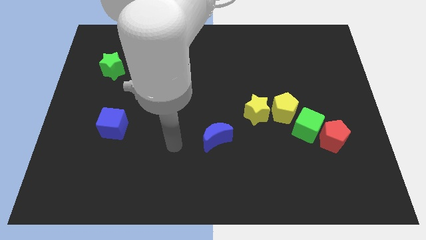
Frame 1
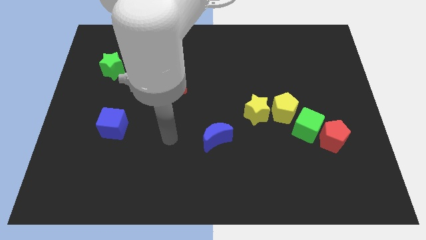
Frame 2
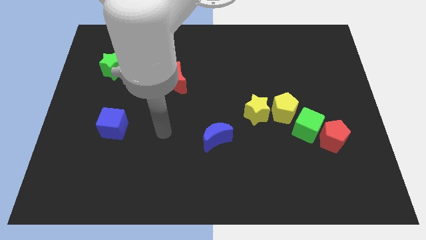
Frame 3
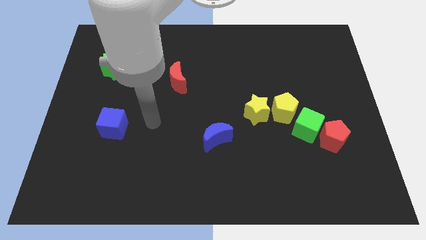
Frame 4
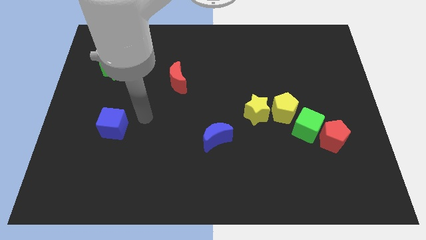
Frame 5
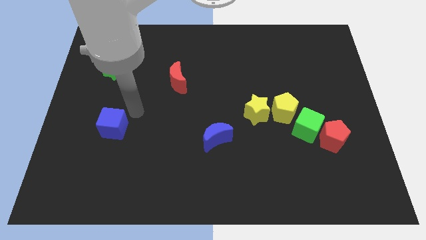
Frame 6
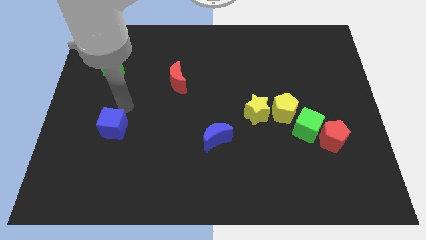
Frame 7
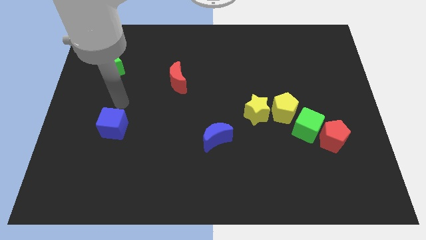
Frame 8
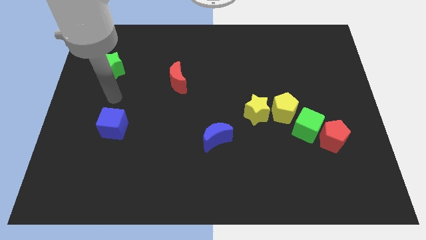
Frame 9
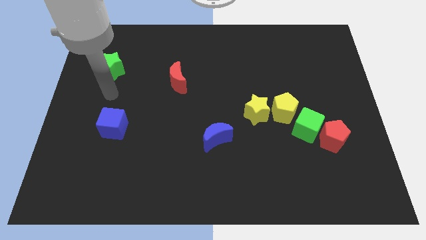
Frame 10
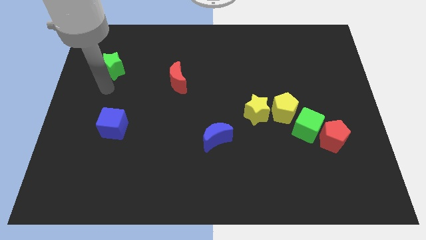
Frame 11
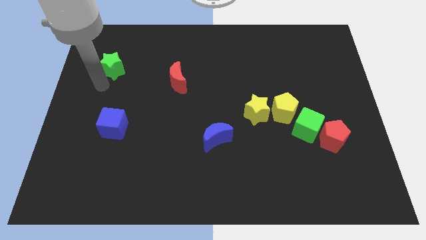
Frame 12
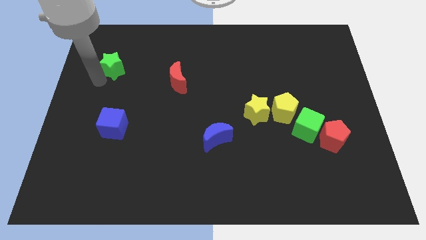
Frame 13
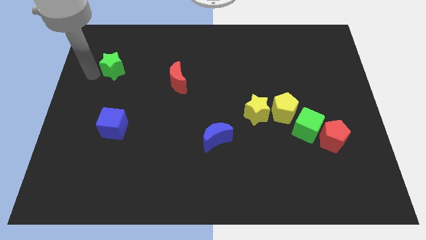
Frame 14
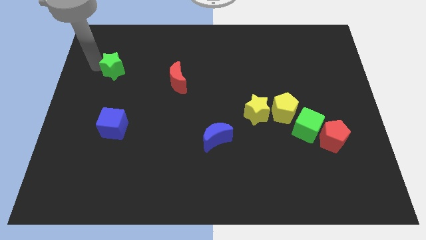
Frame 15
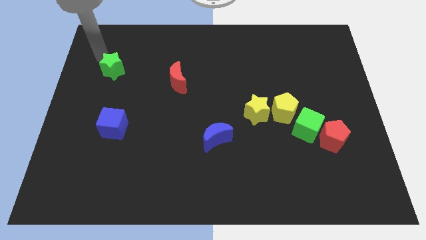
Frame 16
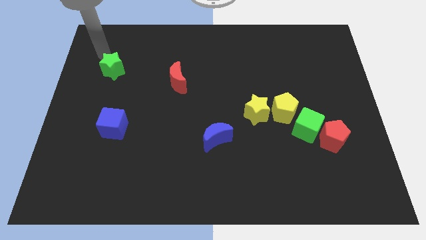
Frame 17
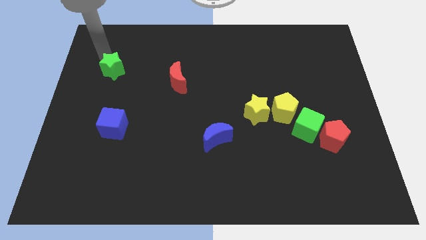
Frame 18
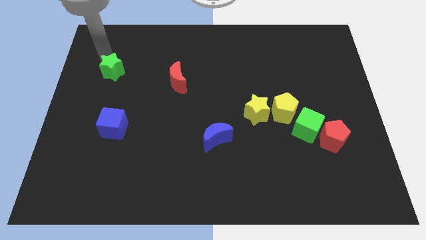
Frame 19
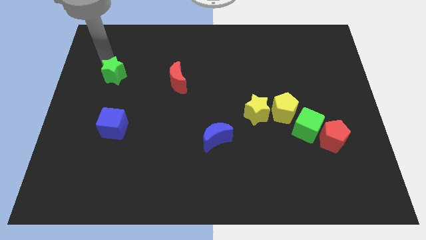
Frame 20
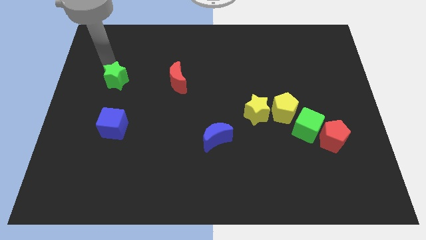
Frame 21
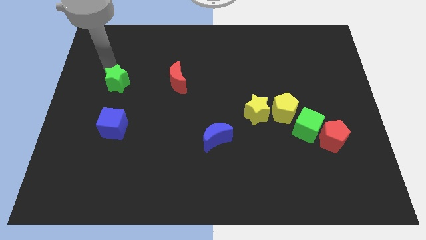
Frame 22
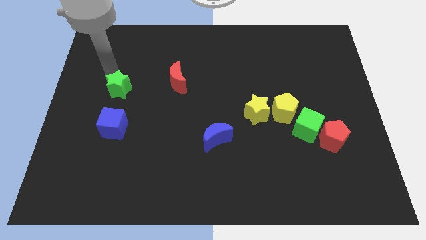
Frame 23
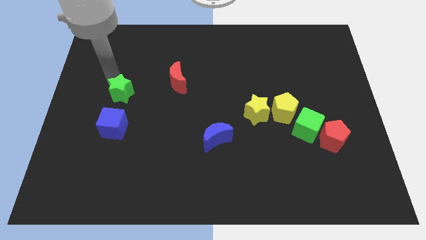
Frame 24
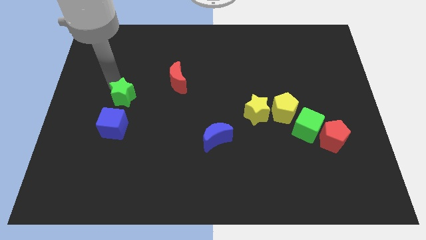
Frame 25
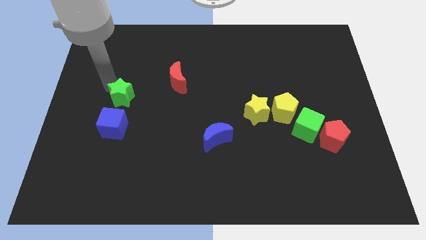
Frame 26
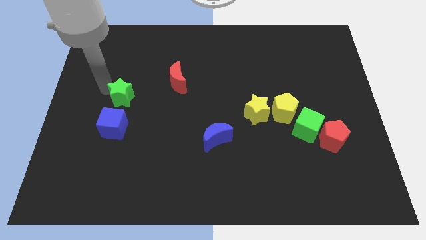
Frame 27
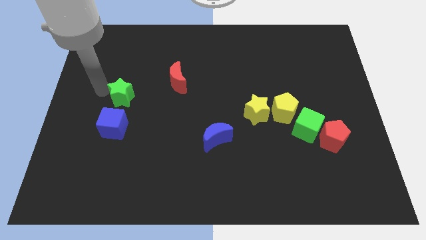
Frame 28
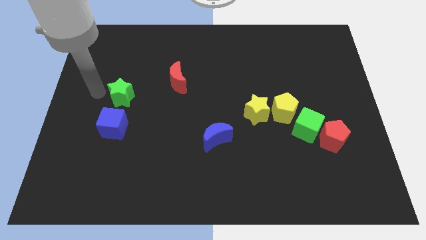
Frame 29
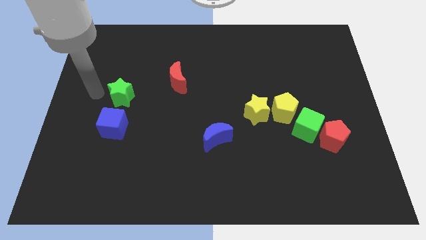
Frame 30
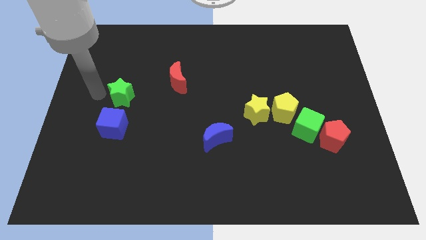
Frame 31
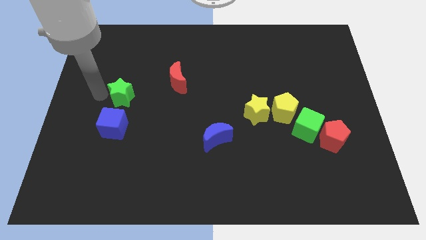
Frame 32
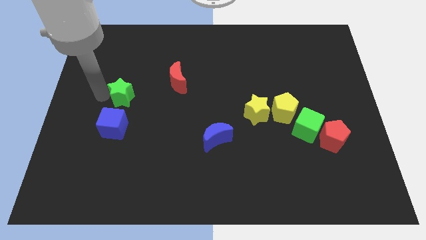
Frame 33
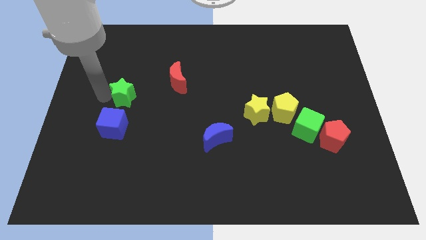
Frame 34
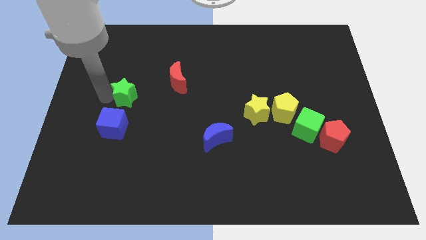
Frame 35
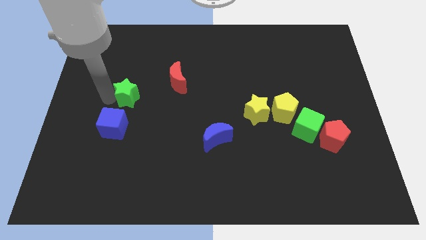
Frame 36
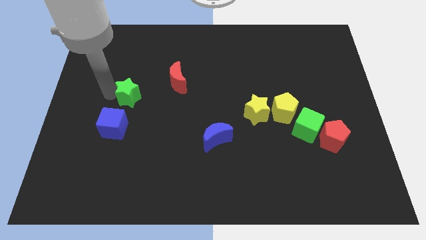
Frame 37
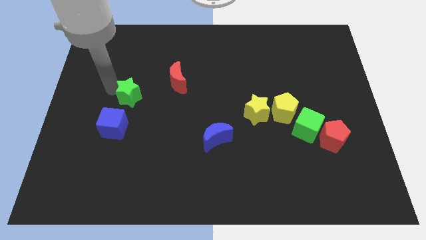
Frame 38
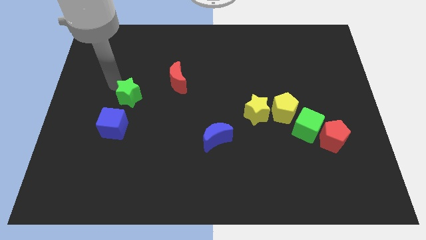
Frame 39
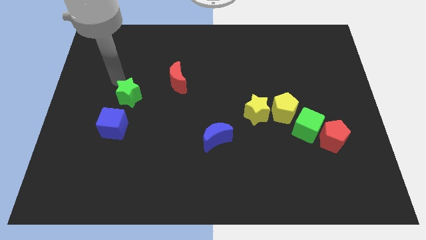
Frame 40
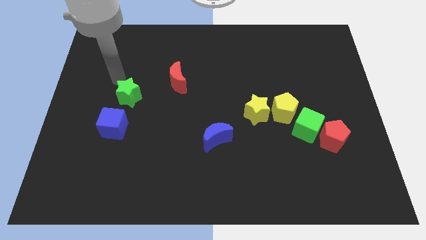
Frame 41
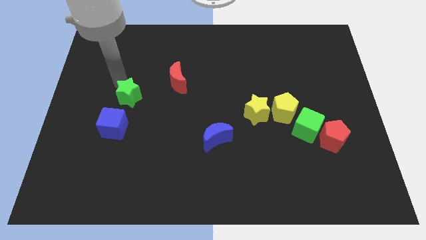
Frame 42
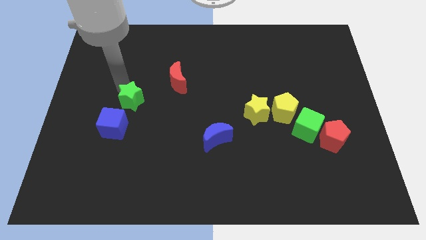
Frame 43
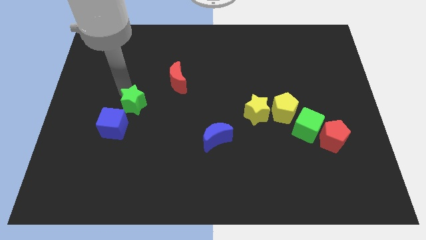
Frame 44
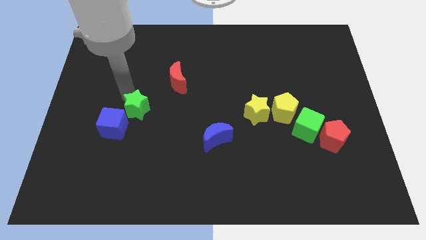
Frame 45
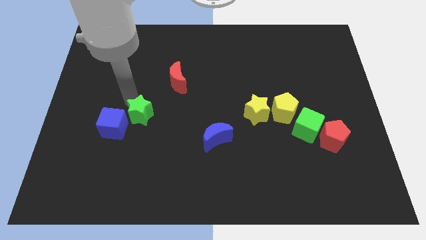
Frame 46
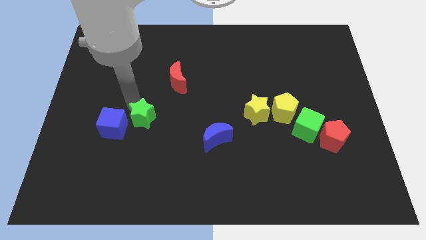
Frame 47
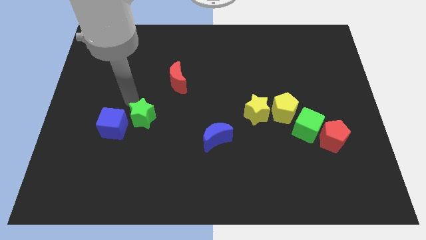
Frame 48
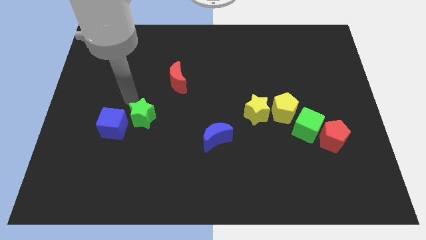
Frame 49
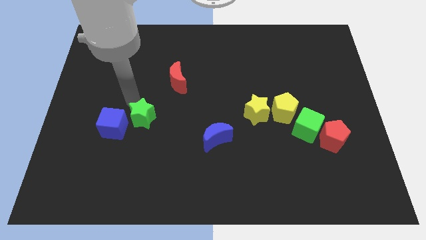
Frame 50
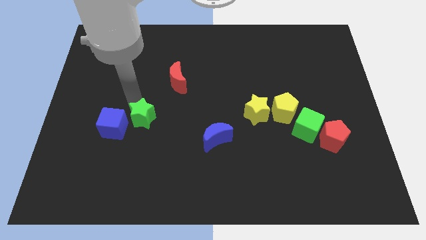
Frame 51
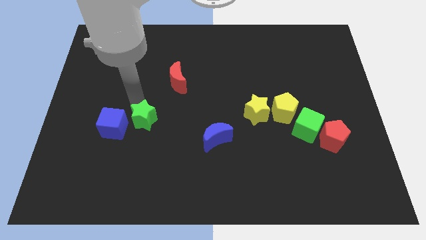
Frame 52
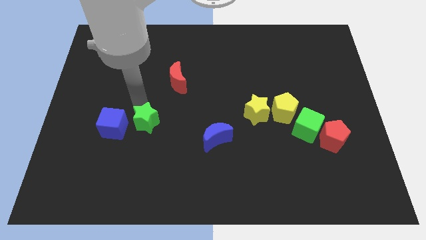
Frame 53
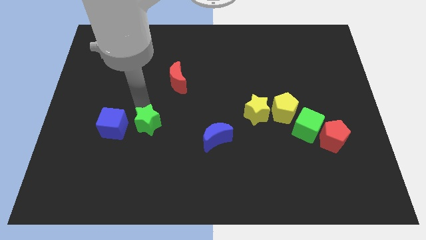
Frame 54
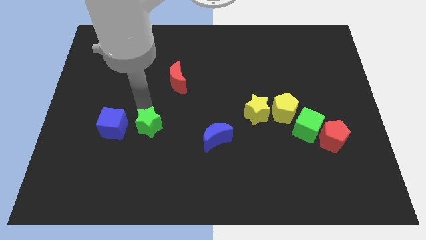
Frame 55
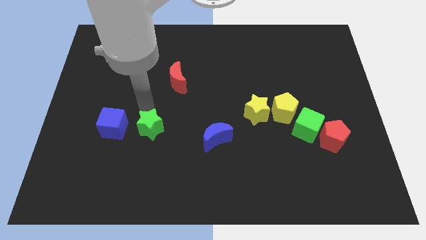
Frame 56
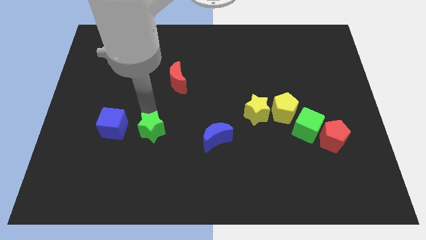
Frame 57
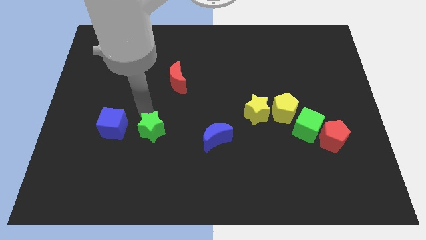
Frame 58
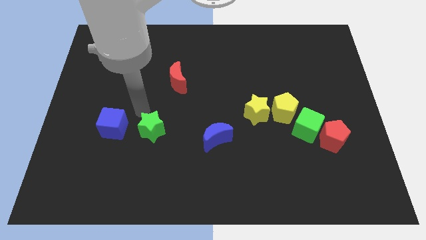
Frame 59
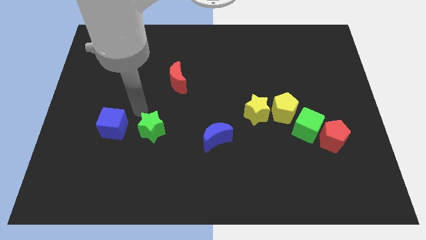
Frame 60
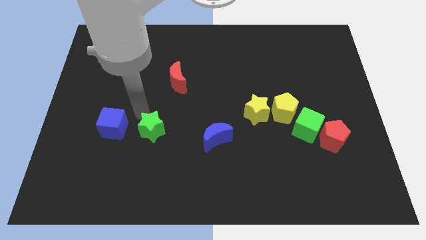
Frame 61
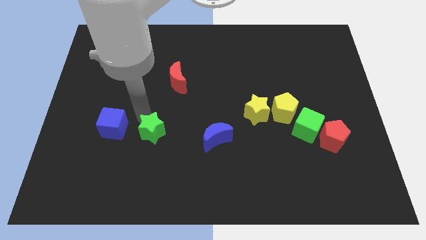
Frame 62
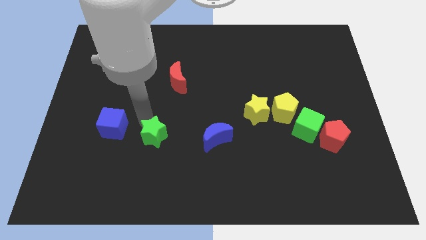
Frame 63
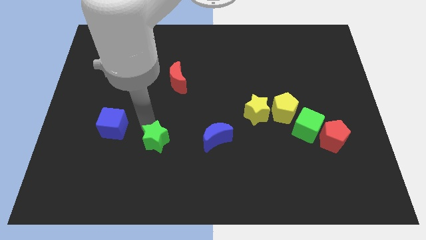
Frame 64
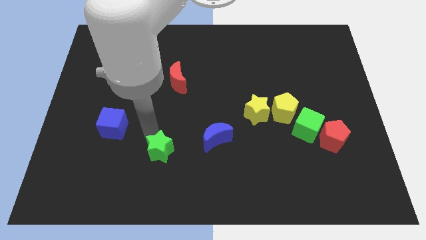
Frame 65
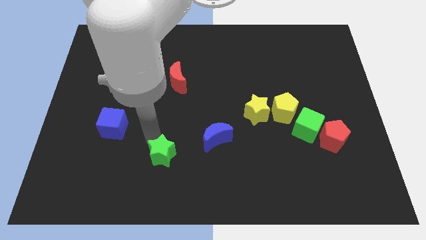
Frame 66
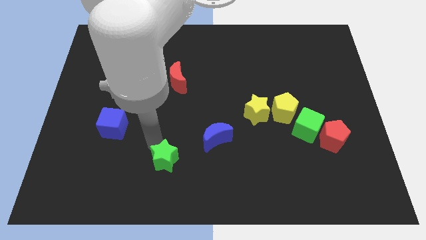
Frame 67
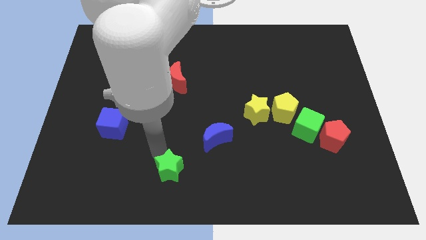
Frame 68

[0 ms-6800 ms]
push the green star to the bottom
